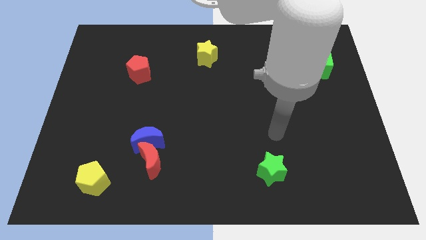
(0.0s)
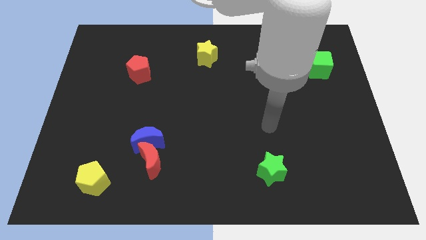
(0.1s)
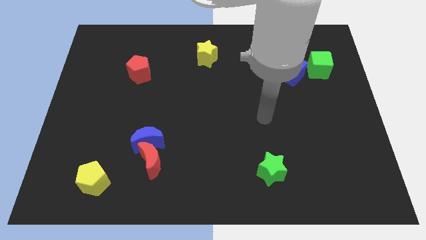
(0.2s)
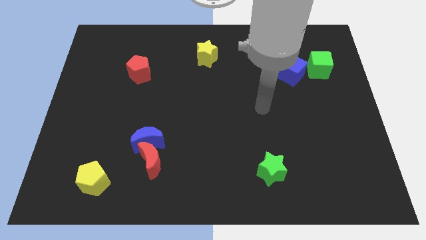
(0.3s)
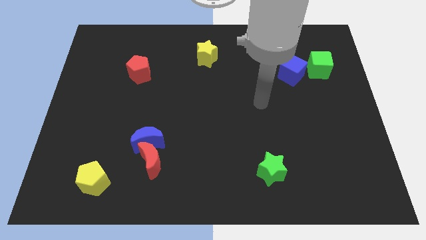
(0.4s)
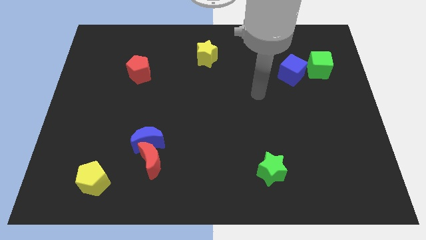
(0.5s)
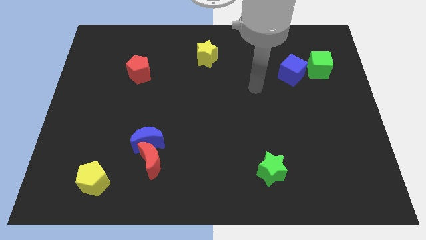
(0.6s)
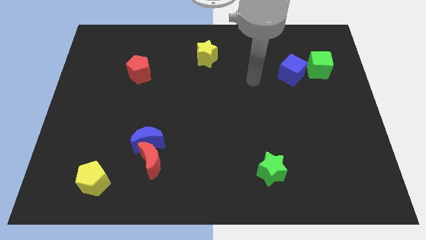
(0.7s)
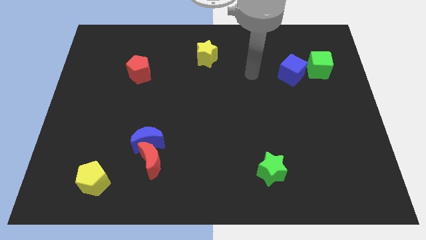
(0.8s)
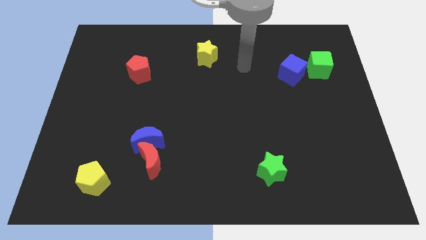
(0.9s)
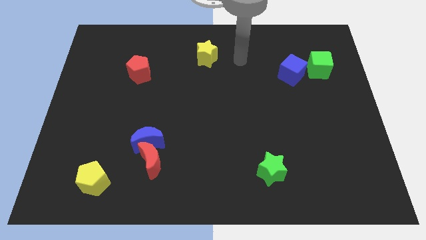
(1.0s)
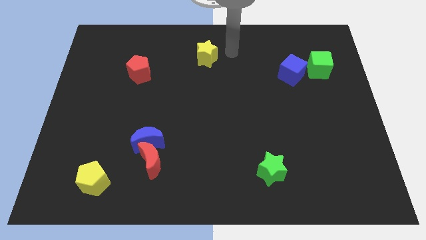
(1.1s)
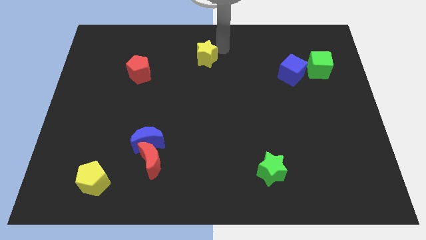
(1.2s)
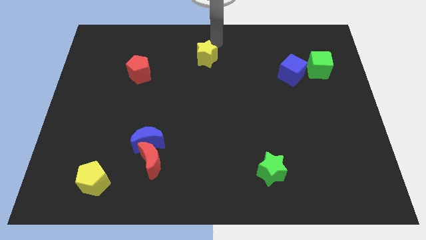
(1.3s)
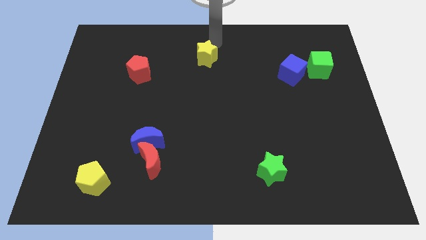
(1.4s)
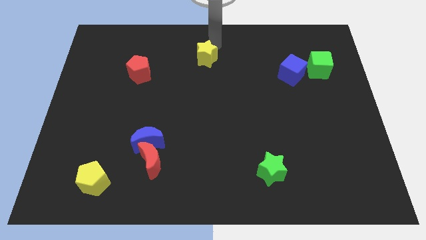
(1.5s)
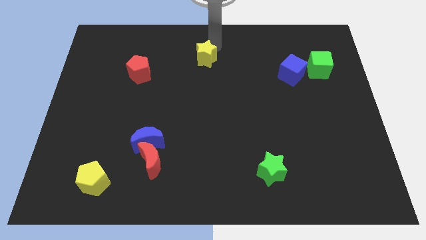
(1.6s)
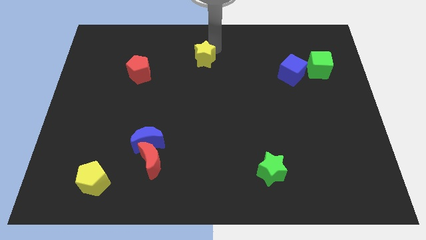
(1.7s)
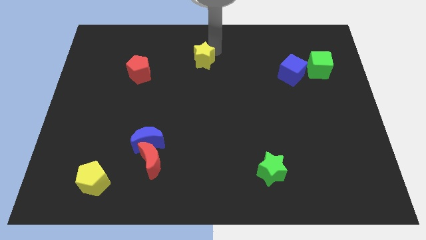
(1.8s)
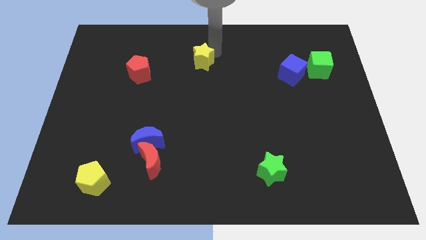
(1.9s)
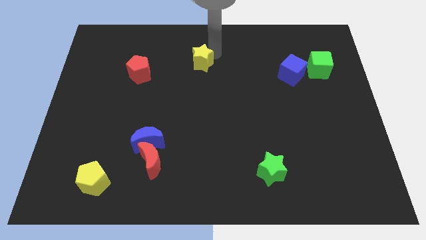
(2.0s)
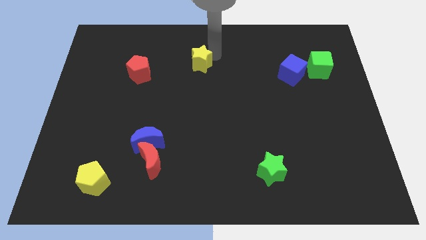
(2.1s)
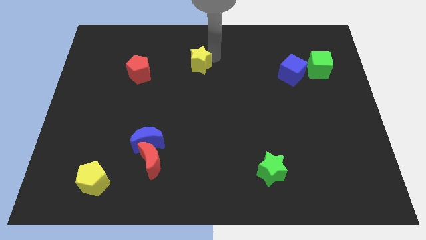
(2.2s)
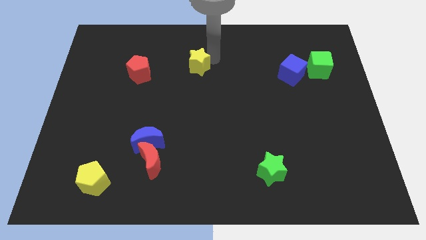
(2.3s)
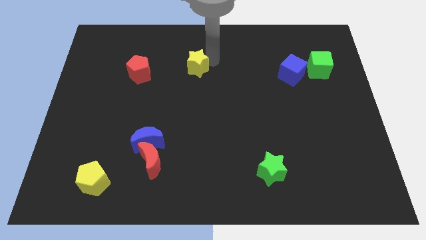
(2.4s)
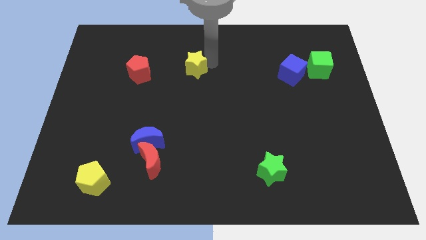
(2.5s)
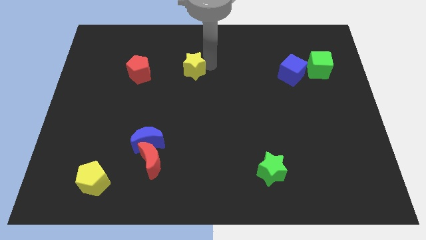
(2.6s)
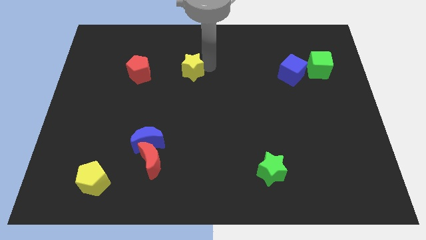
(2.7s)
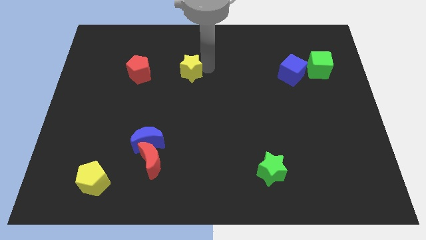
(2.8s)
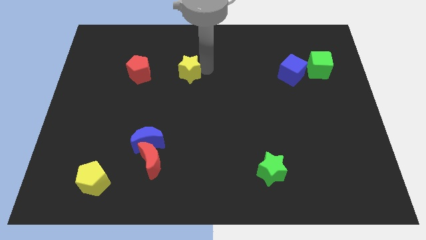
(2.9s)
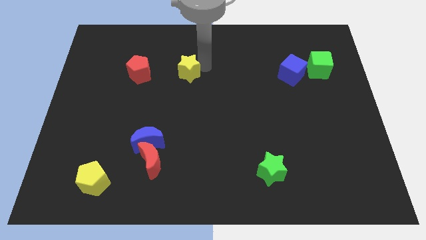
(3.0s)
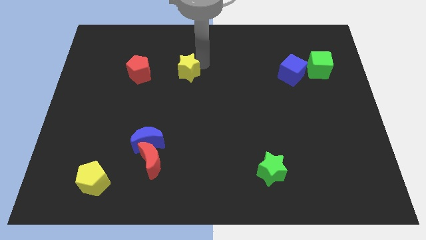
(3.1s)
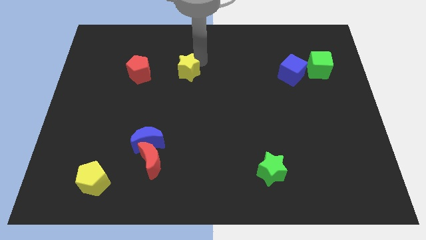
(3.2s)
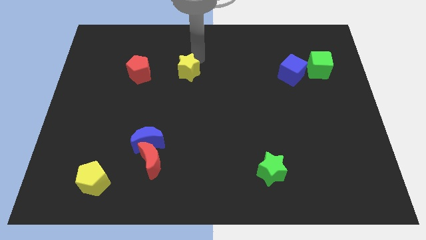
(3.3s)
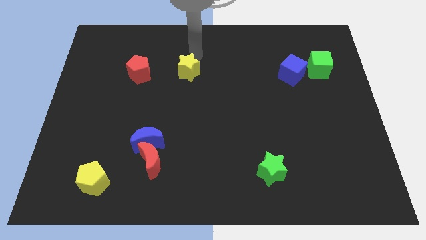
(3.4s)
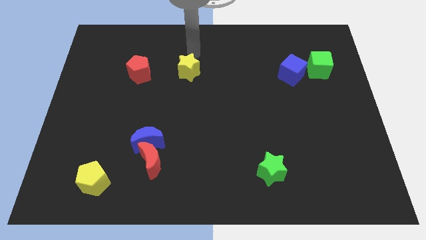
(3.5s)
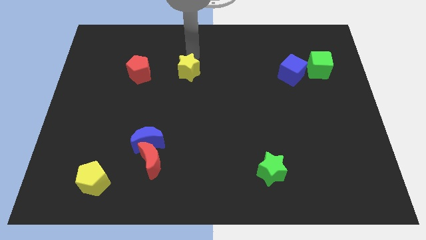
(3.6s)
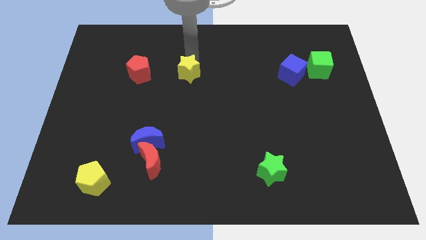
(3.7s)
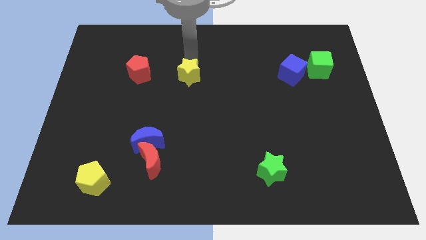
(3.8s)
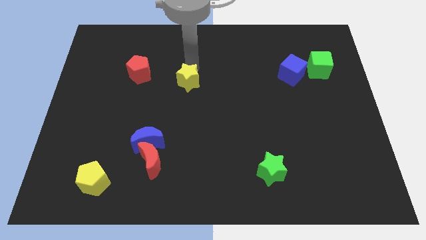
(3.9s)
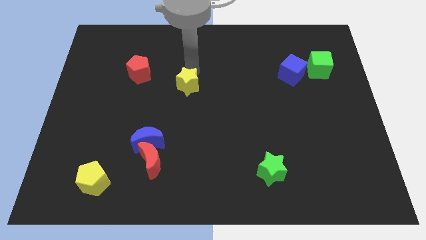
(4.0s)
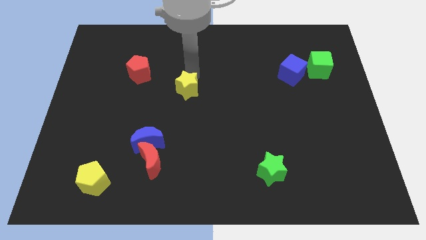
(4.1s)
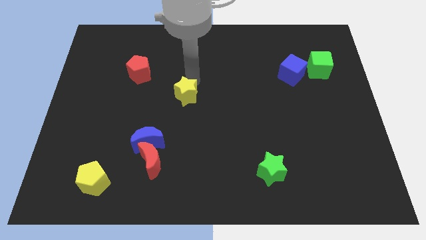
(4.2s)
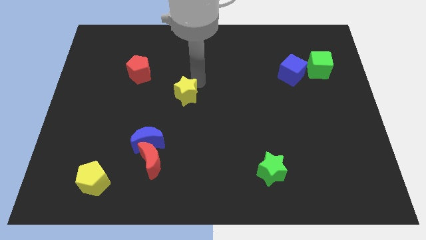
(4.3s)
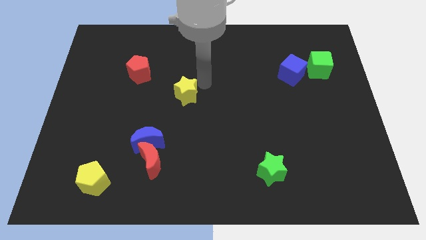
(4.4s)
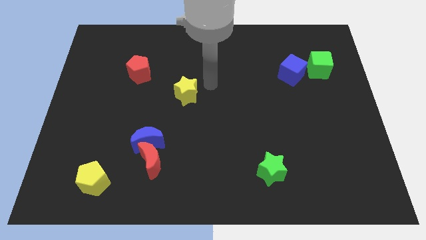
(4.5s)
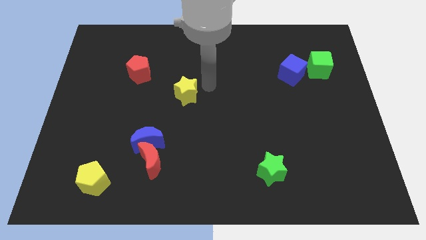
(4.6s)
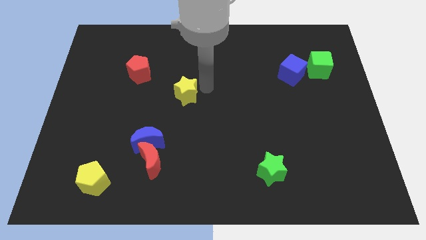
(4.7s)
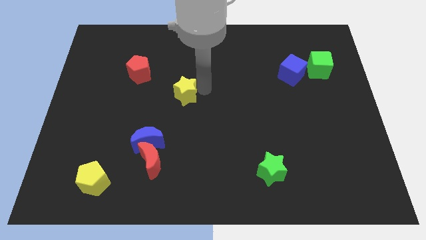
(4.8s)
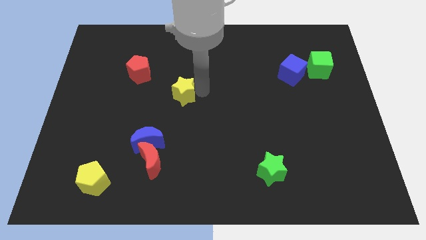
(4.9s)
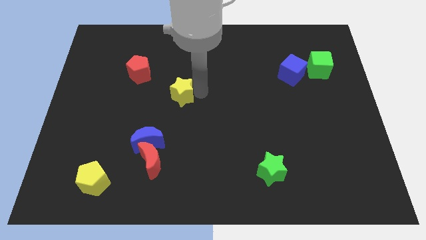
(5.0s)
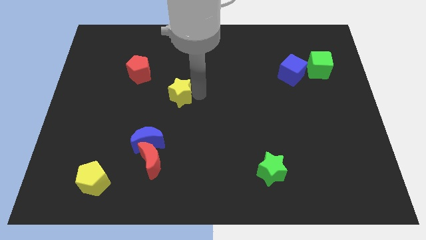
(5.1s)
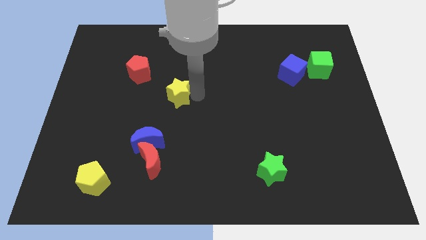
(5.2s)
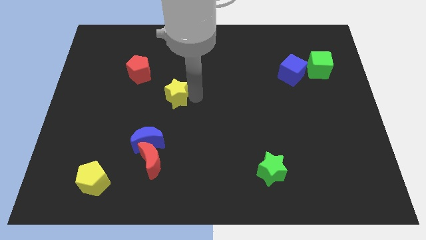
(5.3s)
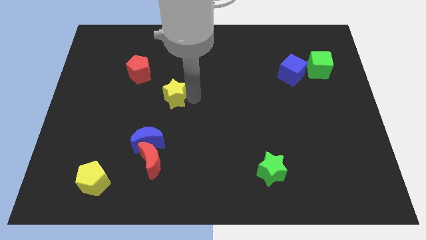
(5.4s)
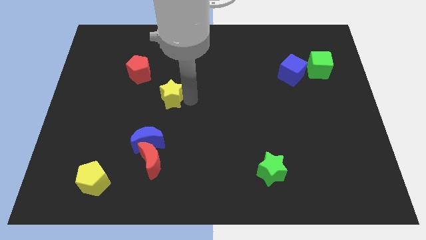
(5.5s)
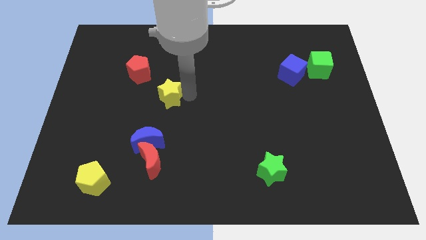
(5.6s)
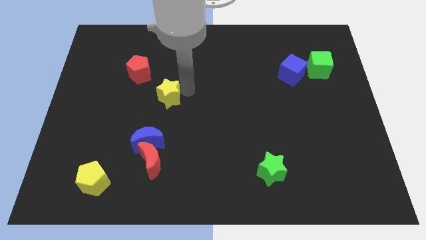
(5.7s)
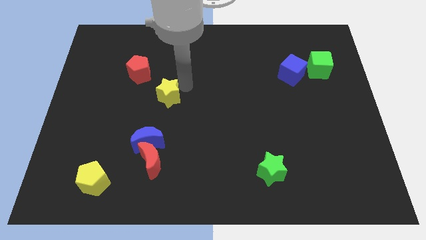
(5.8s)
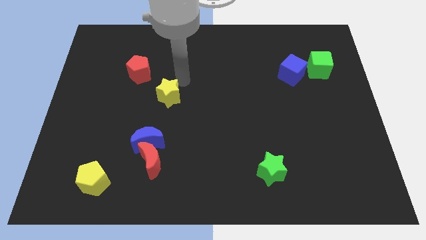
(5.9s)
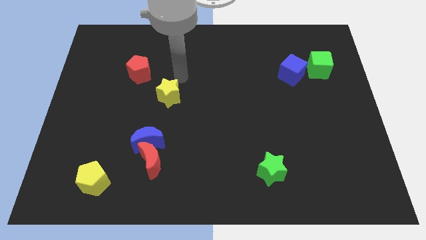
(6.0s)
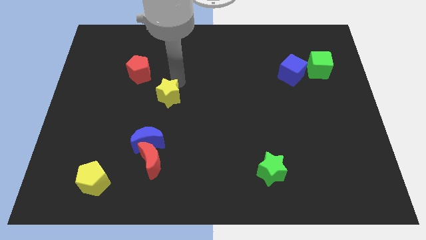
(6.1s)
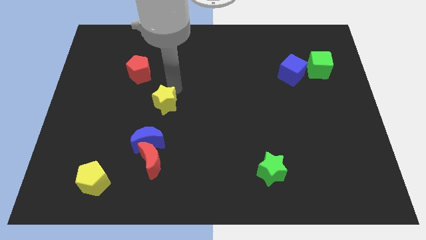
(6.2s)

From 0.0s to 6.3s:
put the yellow star to the top side of the red moon

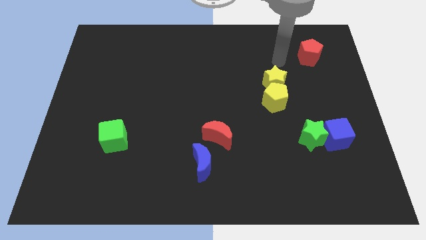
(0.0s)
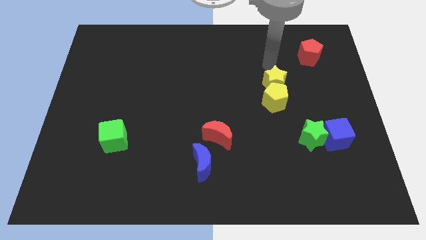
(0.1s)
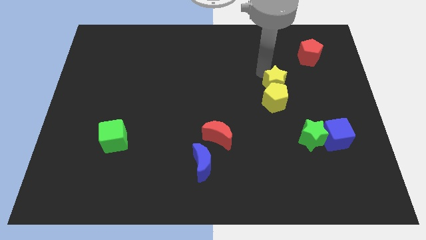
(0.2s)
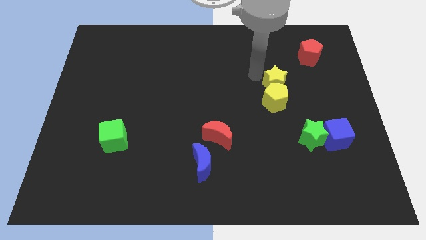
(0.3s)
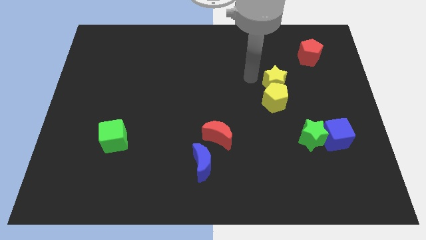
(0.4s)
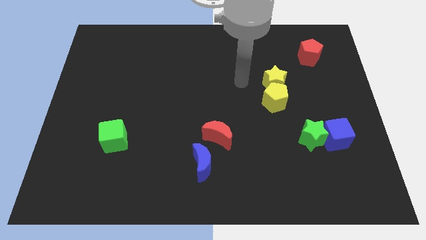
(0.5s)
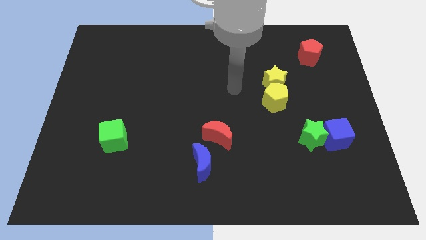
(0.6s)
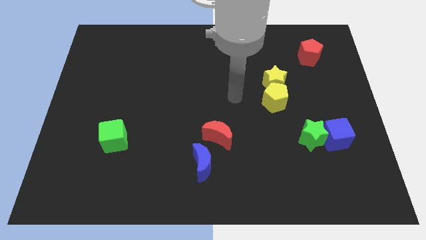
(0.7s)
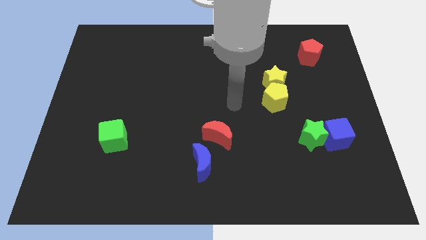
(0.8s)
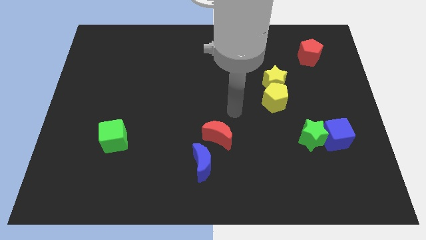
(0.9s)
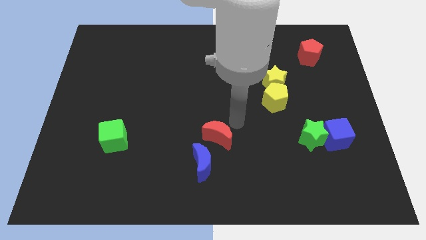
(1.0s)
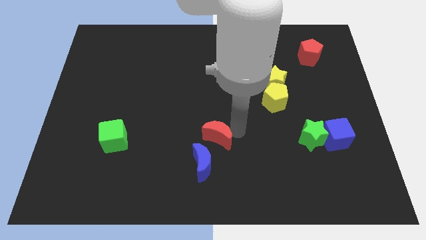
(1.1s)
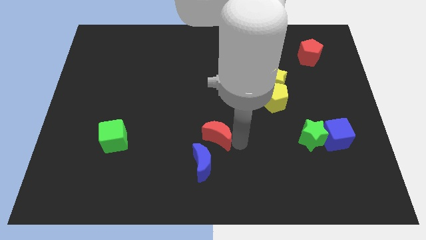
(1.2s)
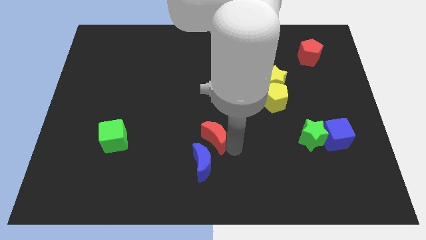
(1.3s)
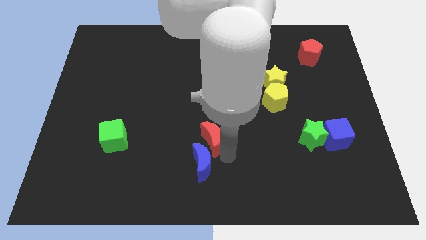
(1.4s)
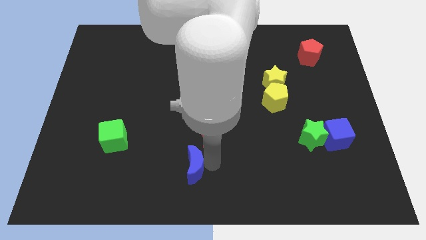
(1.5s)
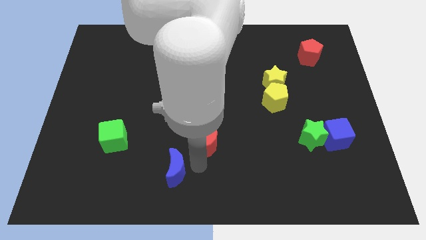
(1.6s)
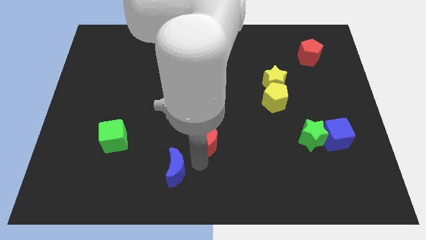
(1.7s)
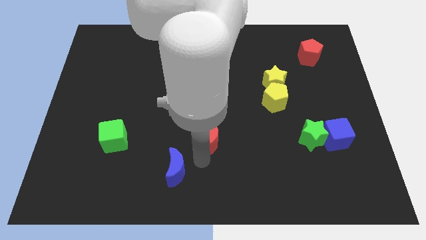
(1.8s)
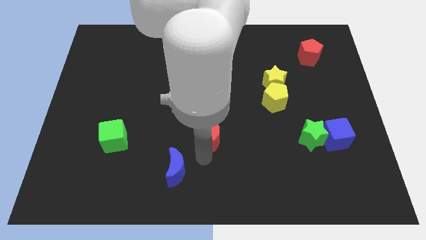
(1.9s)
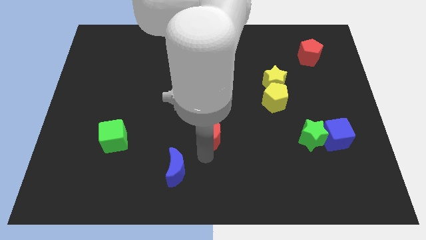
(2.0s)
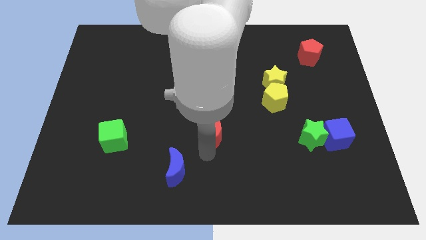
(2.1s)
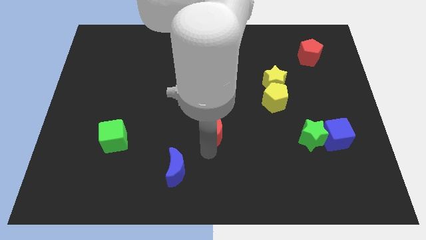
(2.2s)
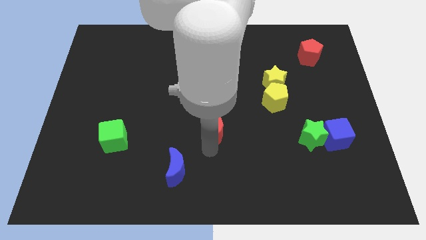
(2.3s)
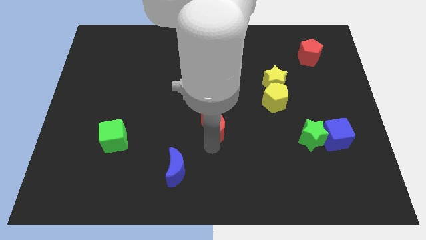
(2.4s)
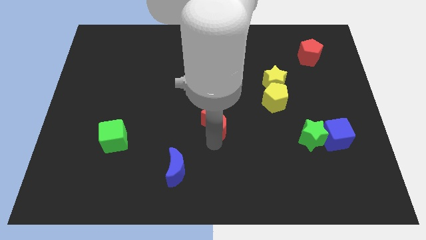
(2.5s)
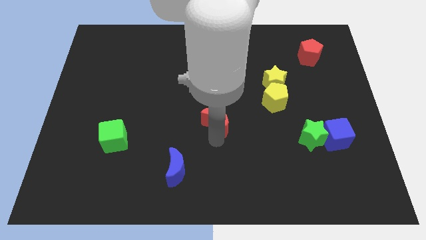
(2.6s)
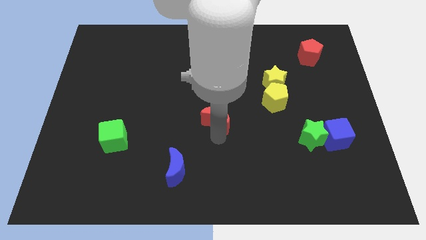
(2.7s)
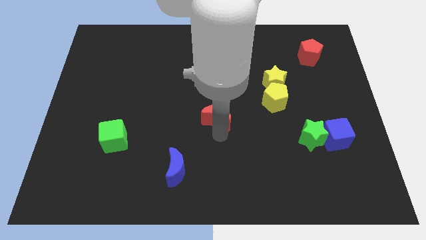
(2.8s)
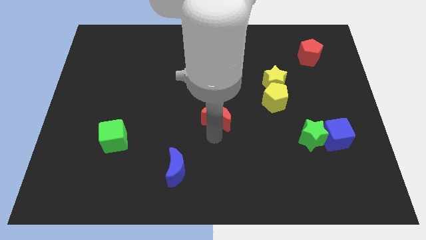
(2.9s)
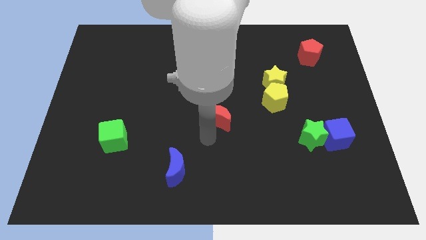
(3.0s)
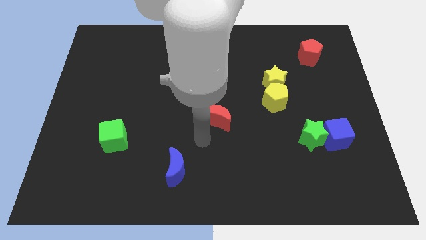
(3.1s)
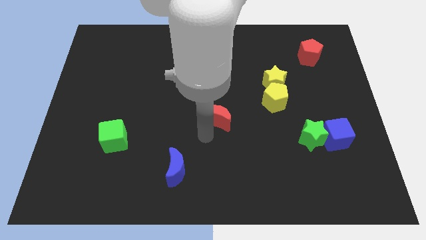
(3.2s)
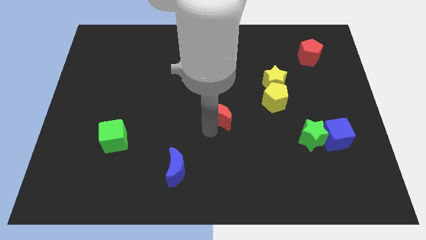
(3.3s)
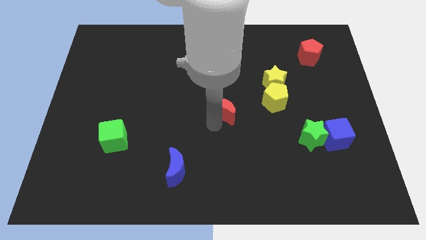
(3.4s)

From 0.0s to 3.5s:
push the red moon left of the yellow pentagon
